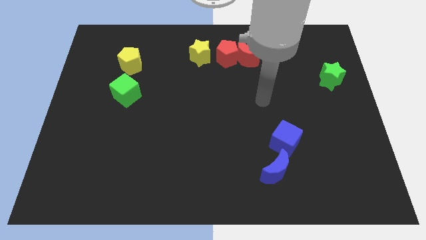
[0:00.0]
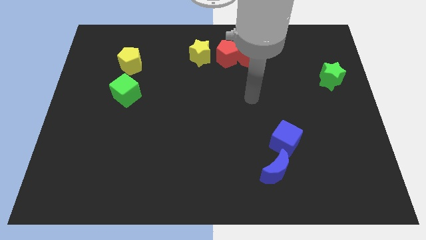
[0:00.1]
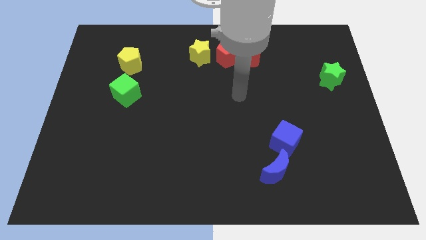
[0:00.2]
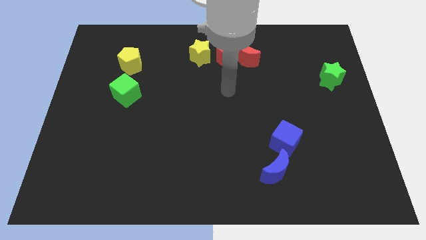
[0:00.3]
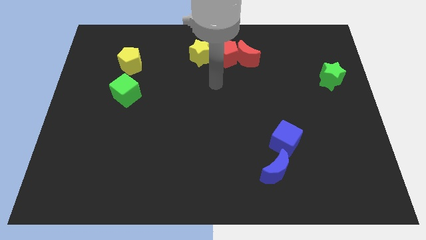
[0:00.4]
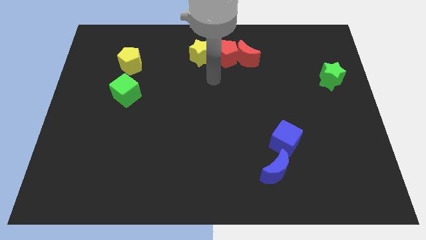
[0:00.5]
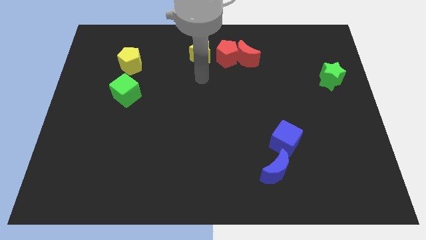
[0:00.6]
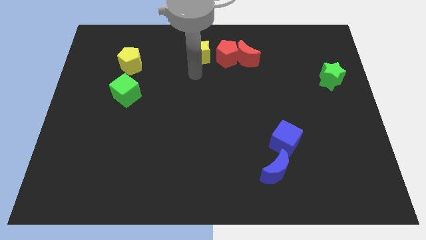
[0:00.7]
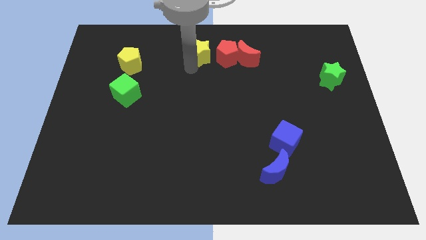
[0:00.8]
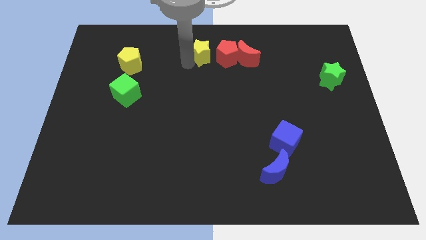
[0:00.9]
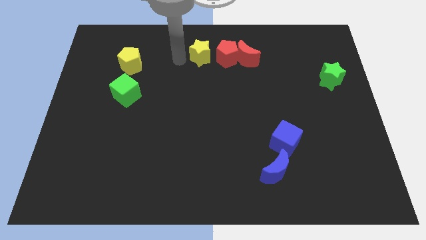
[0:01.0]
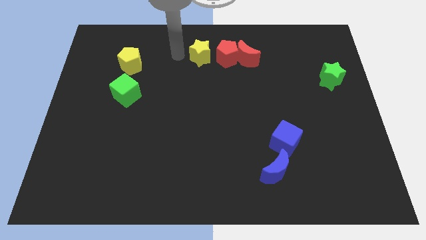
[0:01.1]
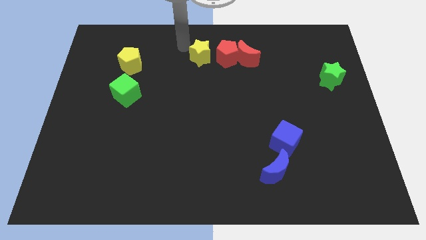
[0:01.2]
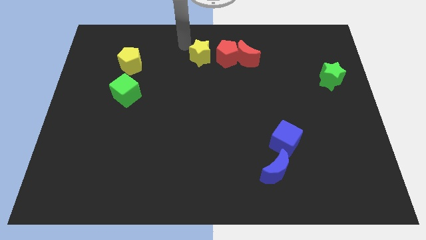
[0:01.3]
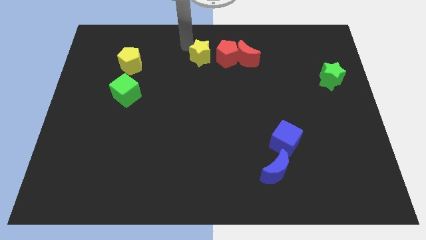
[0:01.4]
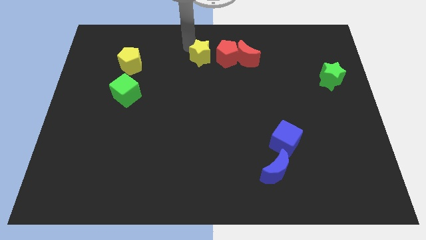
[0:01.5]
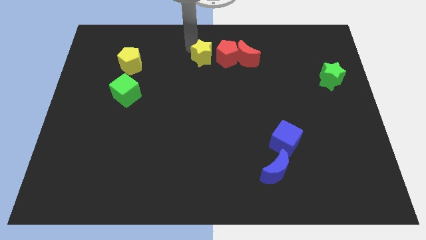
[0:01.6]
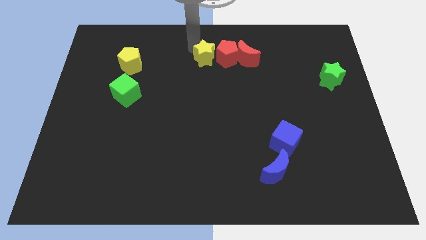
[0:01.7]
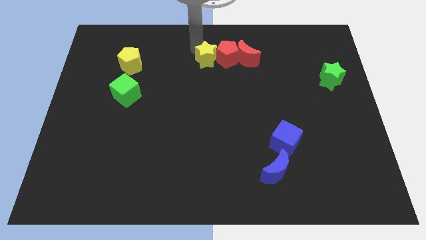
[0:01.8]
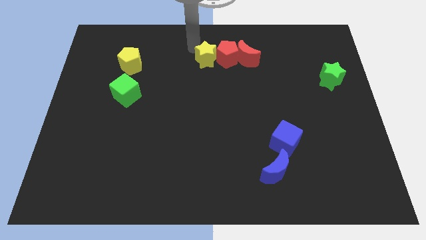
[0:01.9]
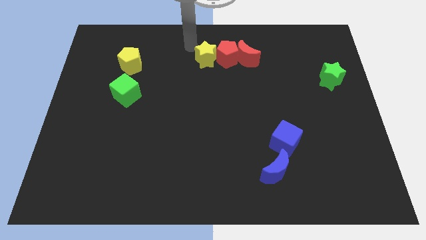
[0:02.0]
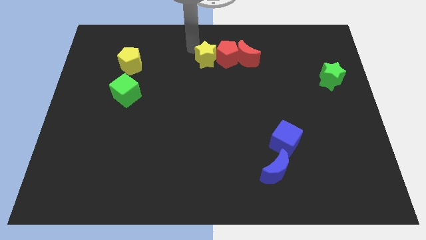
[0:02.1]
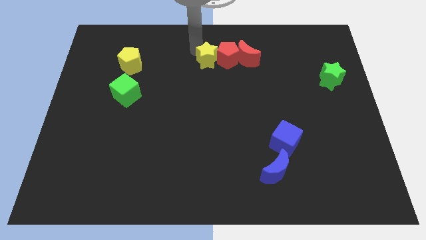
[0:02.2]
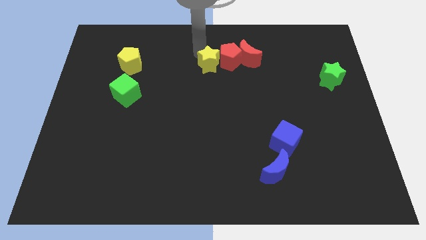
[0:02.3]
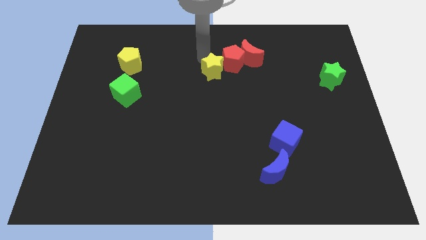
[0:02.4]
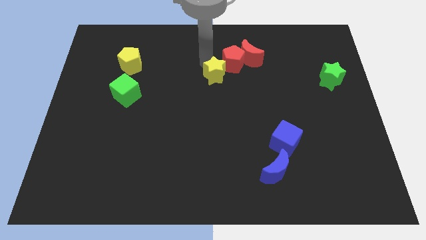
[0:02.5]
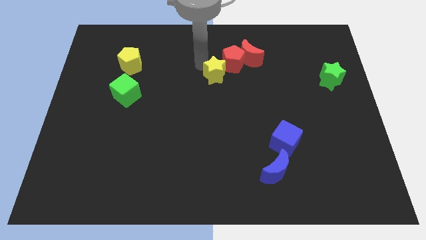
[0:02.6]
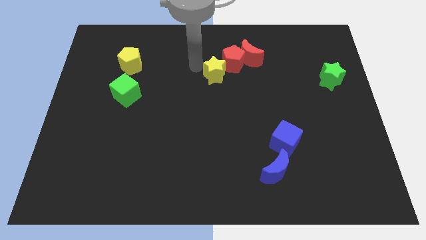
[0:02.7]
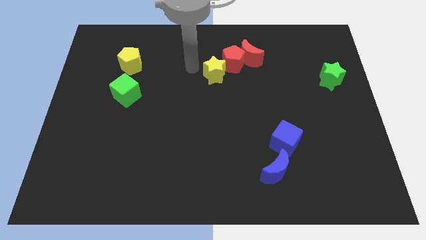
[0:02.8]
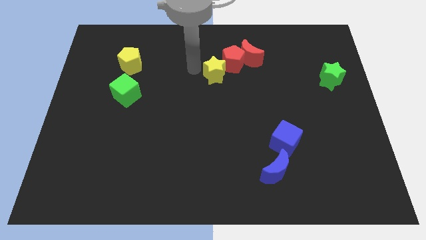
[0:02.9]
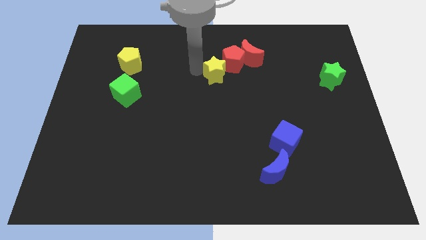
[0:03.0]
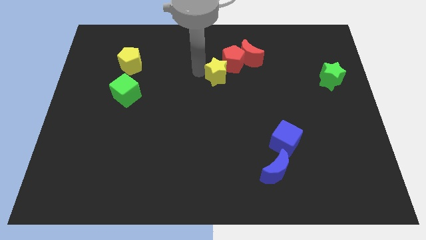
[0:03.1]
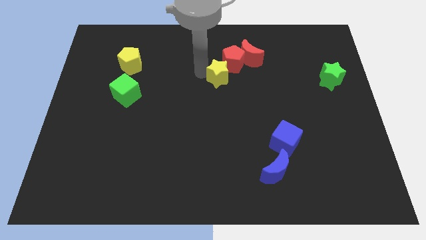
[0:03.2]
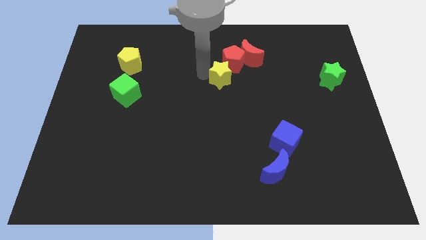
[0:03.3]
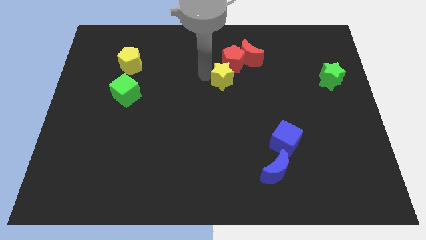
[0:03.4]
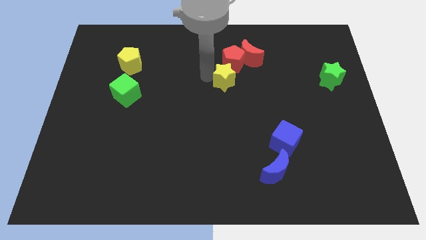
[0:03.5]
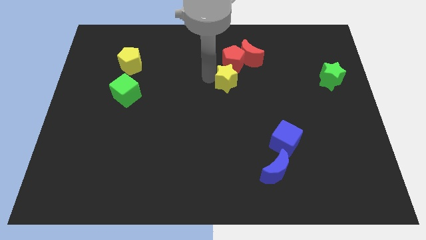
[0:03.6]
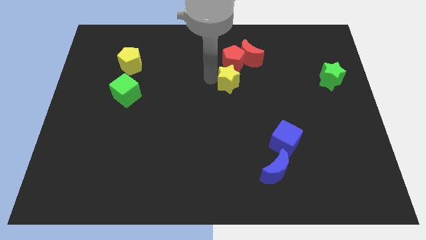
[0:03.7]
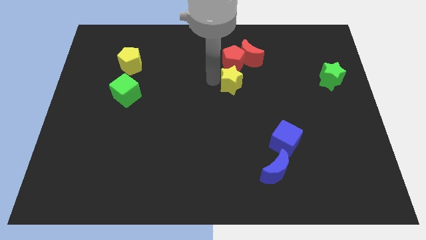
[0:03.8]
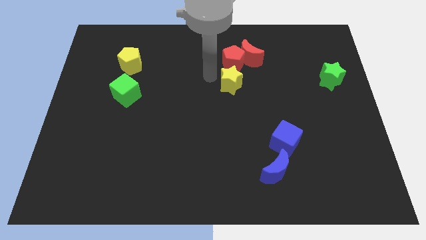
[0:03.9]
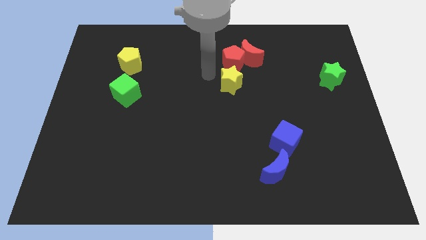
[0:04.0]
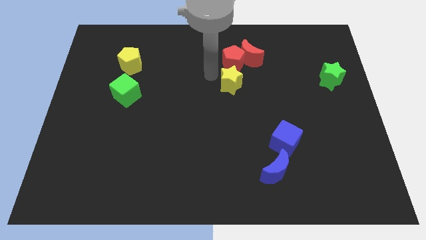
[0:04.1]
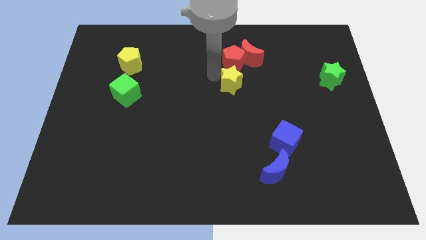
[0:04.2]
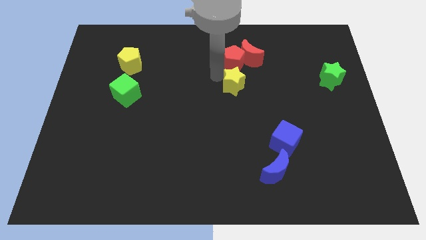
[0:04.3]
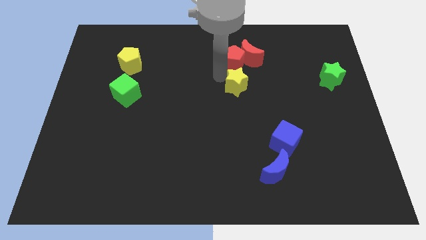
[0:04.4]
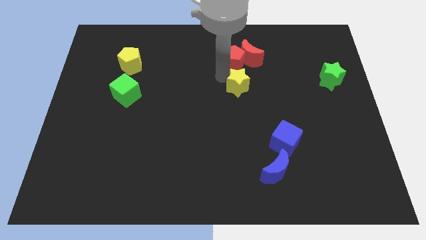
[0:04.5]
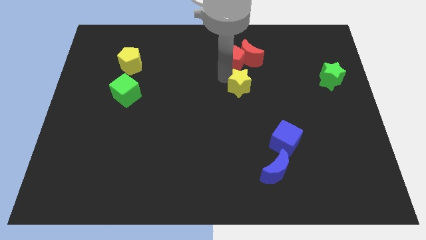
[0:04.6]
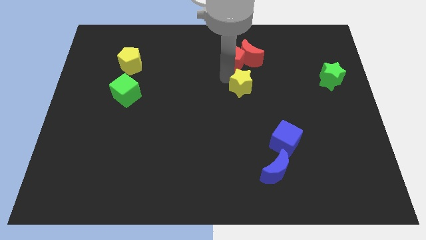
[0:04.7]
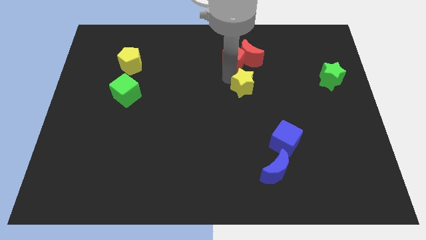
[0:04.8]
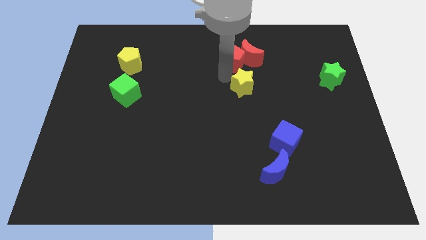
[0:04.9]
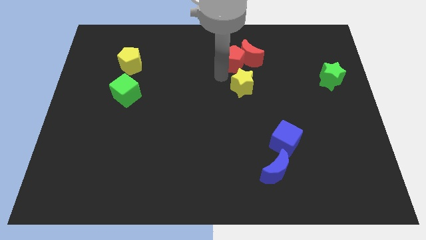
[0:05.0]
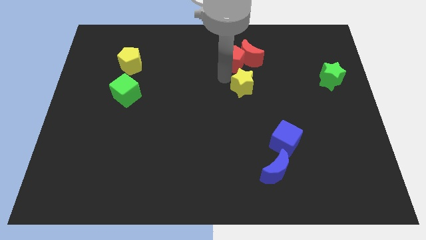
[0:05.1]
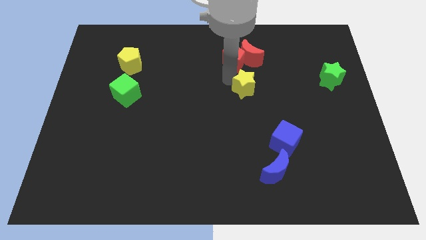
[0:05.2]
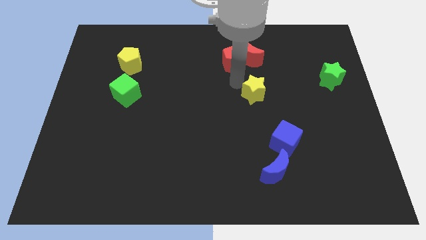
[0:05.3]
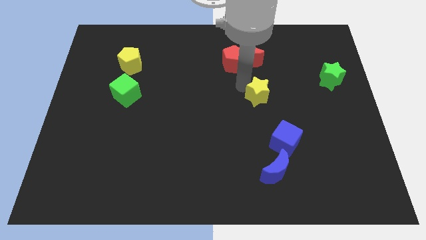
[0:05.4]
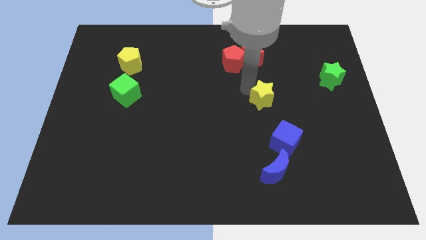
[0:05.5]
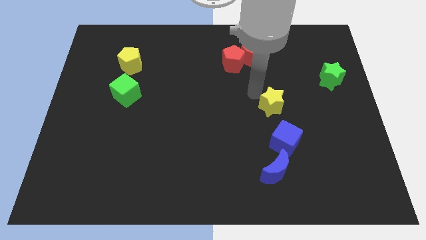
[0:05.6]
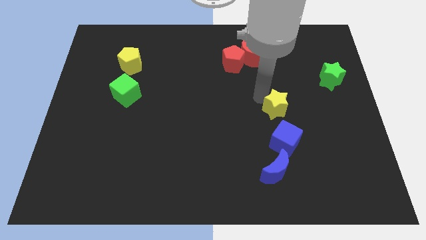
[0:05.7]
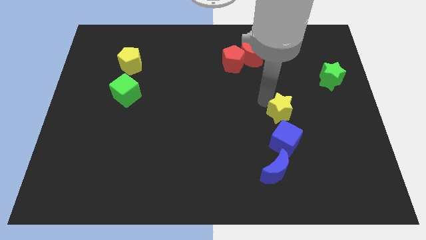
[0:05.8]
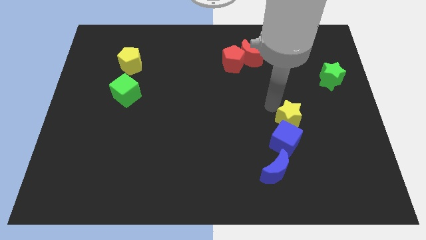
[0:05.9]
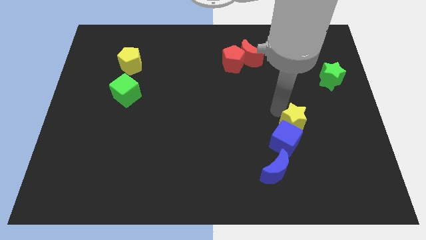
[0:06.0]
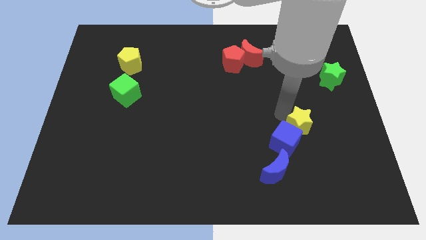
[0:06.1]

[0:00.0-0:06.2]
put the yellow star just right of the blue cube

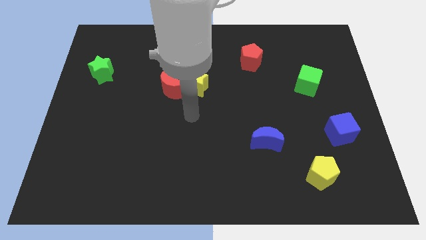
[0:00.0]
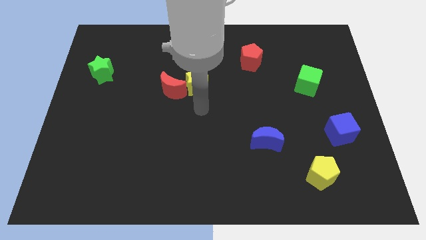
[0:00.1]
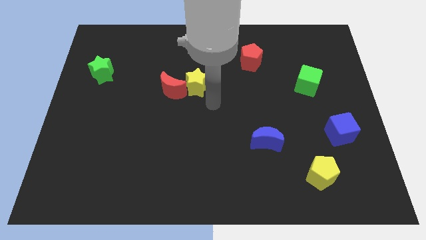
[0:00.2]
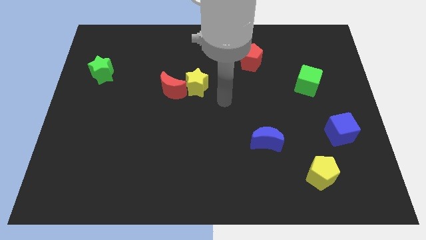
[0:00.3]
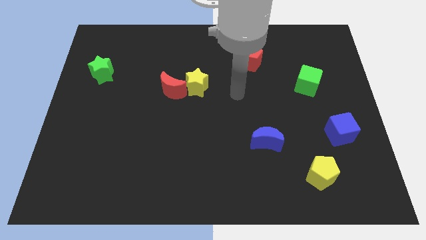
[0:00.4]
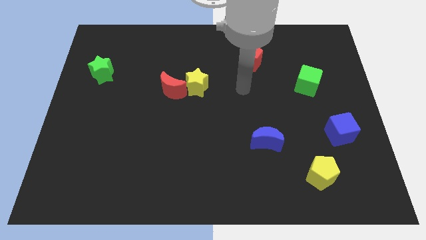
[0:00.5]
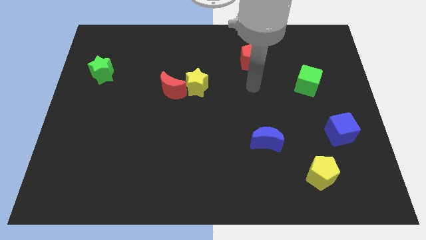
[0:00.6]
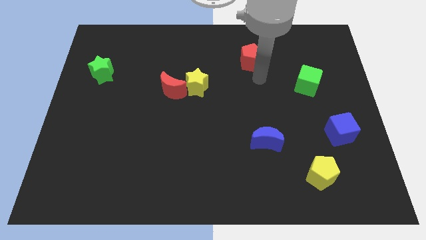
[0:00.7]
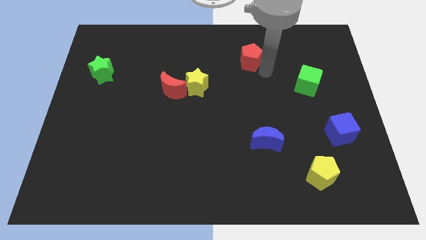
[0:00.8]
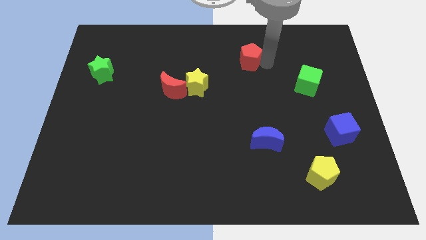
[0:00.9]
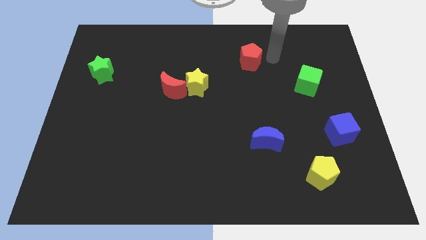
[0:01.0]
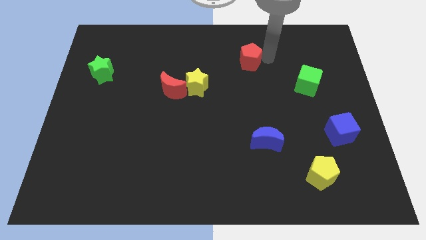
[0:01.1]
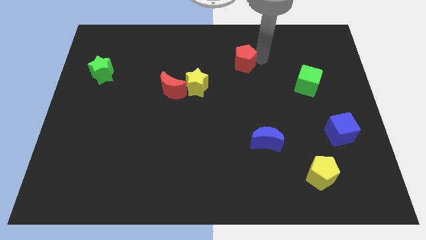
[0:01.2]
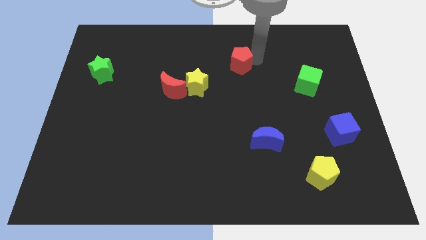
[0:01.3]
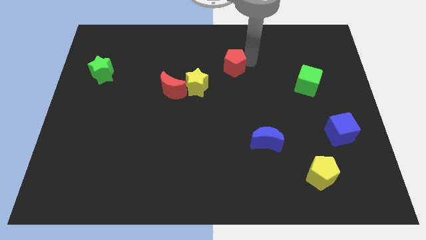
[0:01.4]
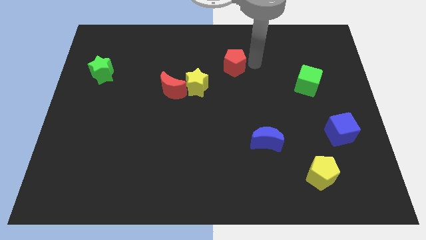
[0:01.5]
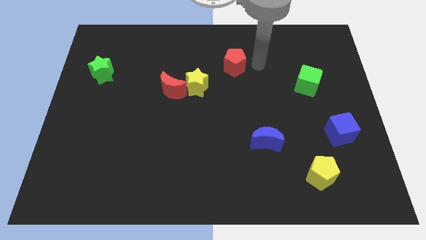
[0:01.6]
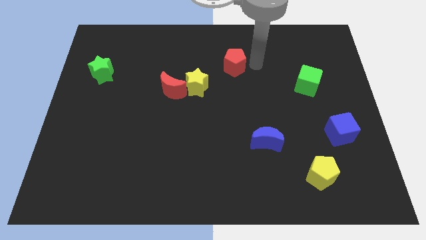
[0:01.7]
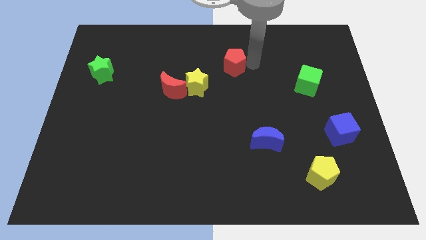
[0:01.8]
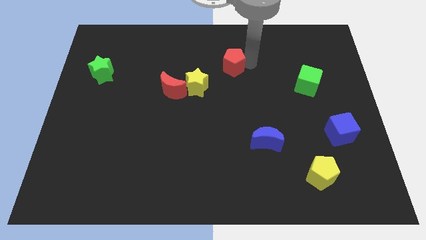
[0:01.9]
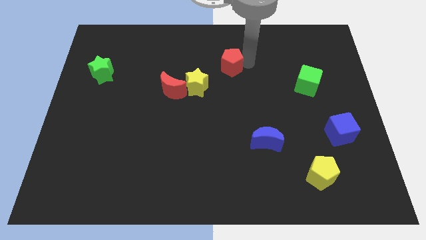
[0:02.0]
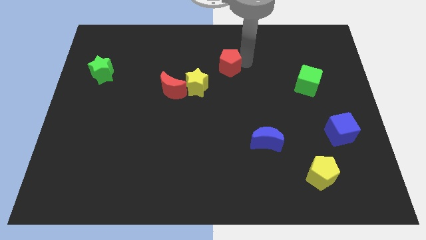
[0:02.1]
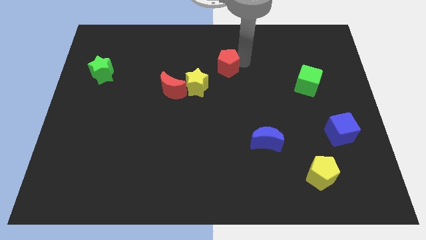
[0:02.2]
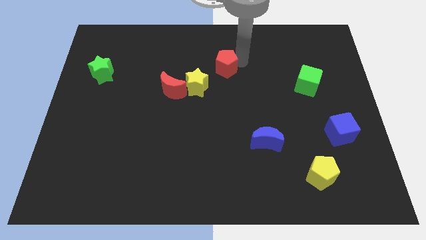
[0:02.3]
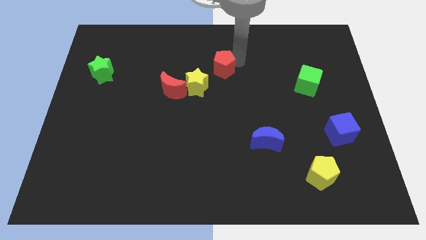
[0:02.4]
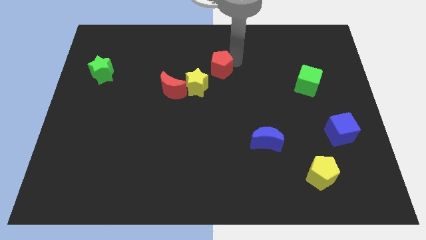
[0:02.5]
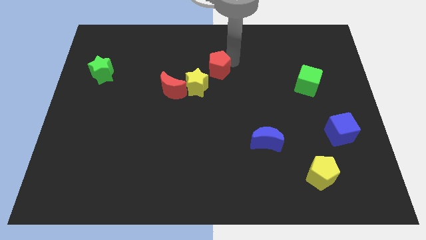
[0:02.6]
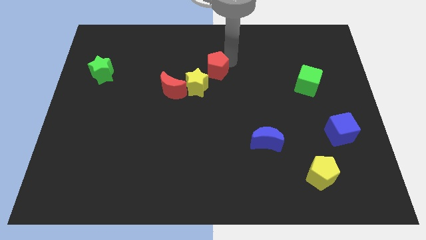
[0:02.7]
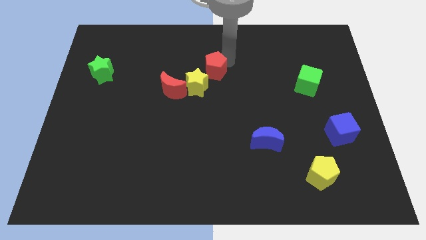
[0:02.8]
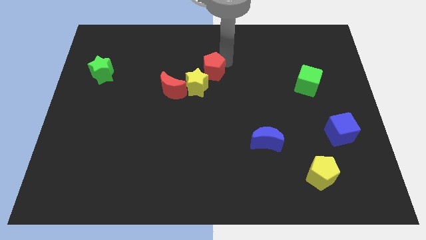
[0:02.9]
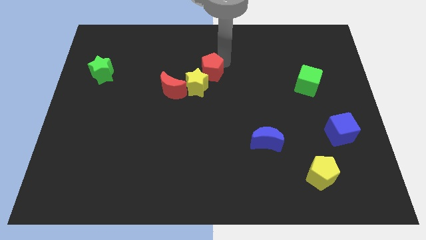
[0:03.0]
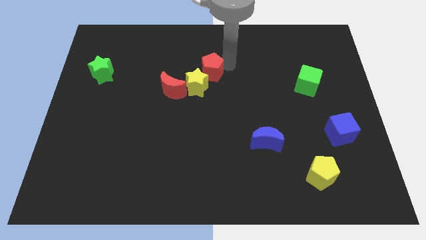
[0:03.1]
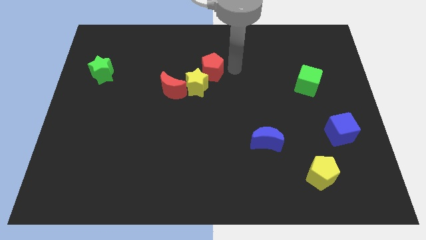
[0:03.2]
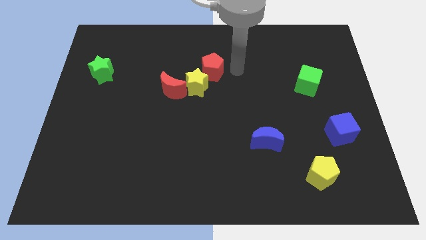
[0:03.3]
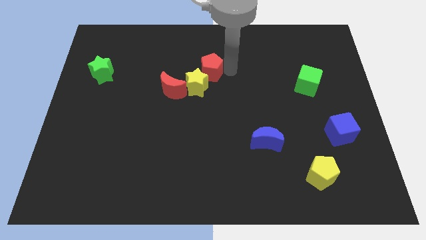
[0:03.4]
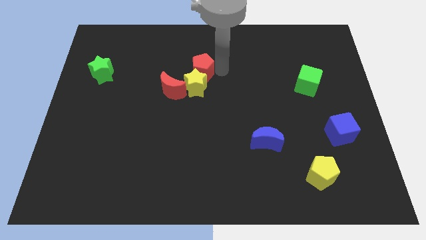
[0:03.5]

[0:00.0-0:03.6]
slide the red pentagon to the top left of the yellow star
